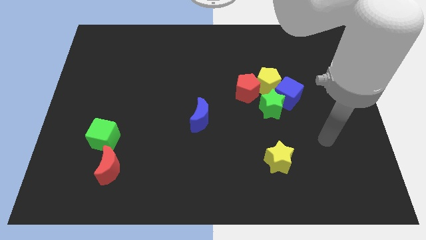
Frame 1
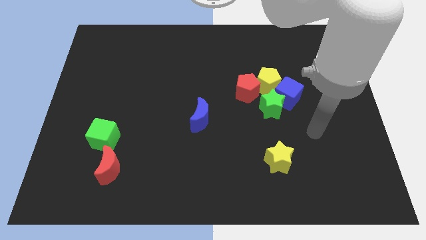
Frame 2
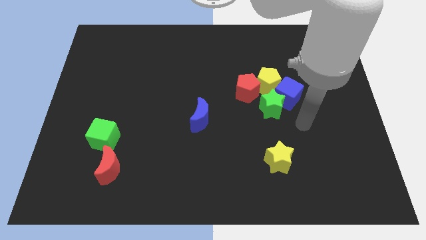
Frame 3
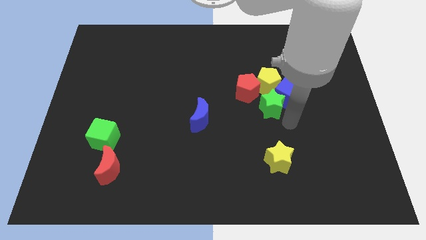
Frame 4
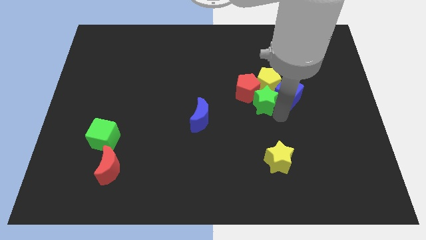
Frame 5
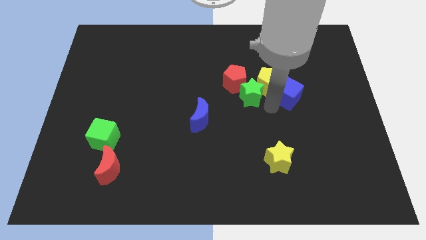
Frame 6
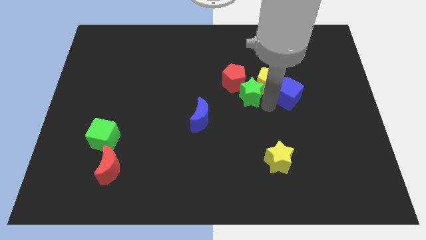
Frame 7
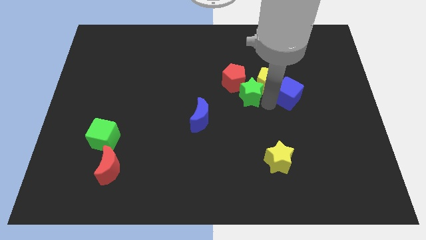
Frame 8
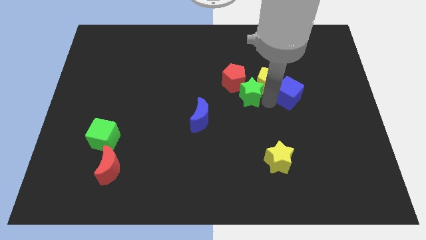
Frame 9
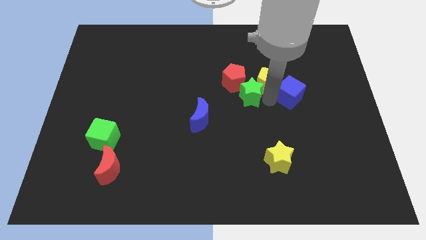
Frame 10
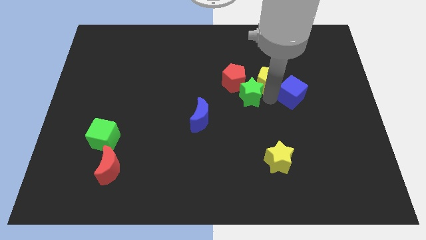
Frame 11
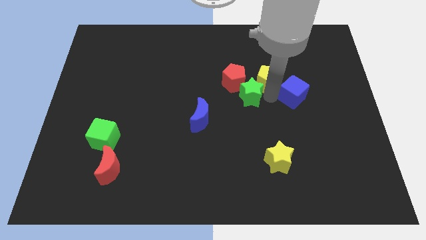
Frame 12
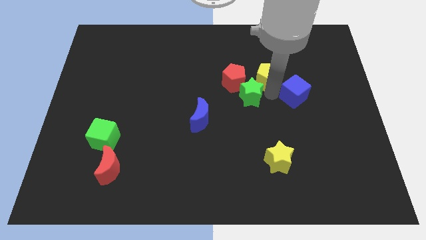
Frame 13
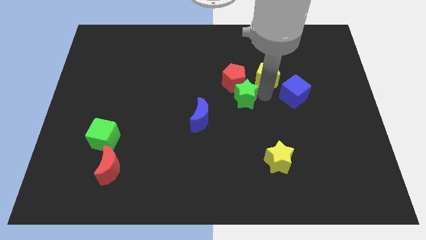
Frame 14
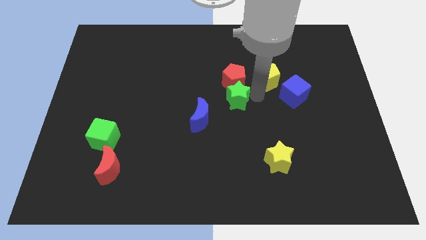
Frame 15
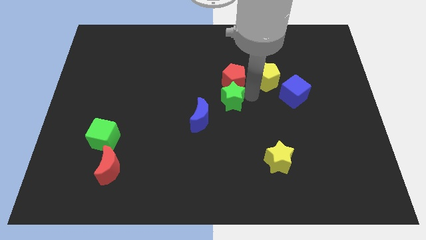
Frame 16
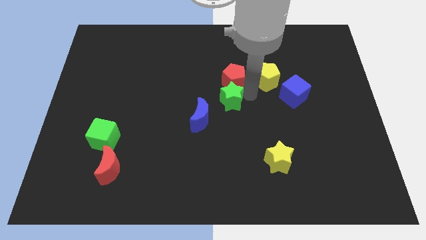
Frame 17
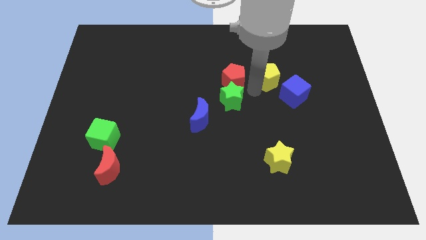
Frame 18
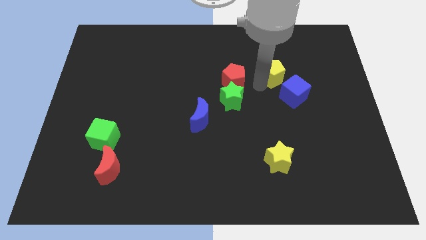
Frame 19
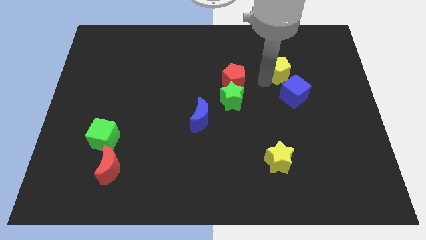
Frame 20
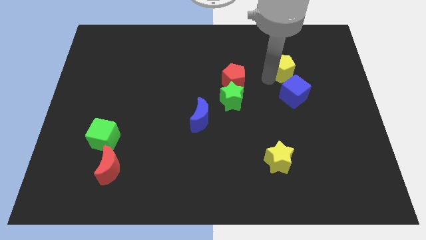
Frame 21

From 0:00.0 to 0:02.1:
move the yellow pentagon away from the group

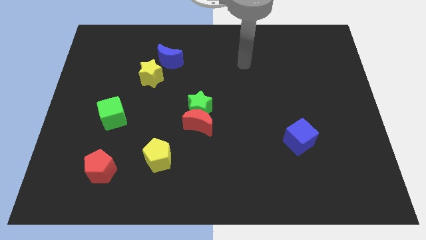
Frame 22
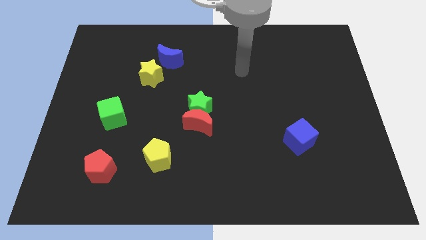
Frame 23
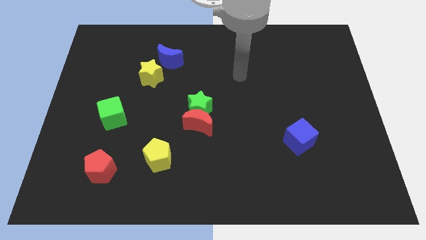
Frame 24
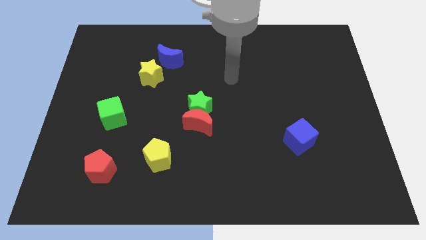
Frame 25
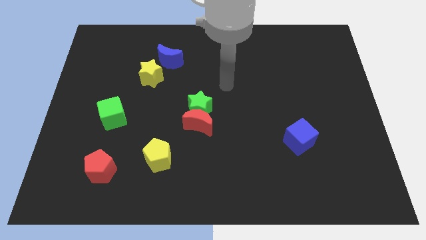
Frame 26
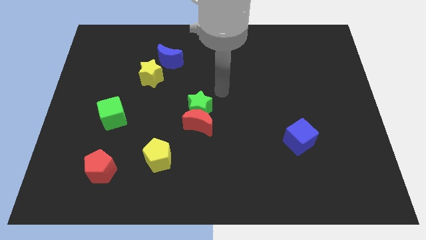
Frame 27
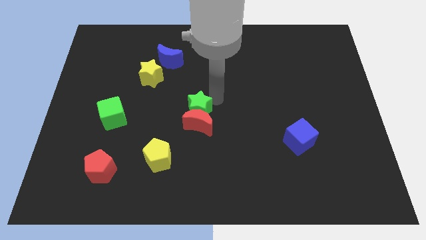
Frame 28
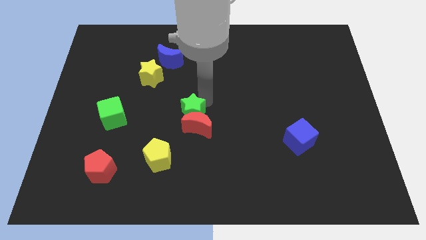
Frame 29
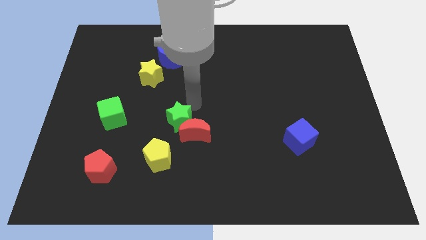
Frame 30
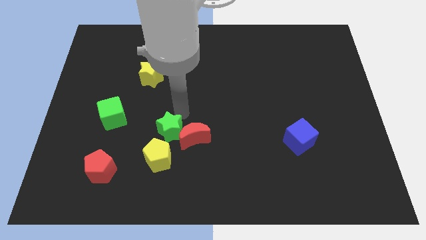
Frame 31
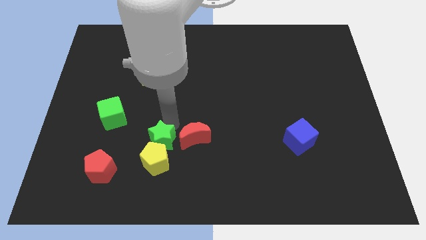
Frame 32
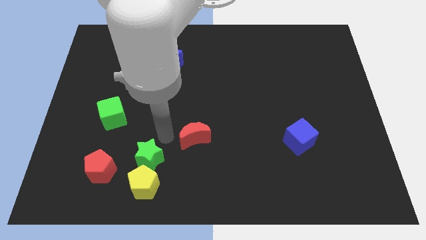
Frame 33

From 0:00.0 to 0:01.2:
move the red moon away from the green star

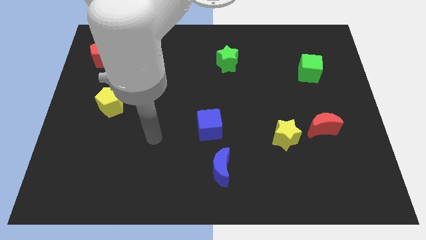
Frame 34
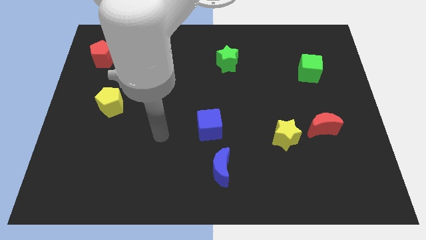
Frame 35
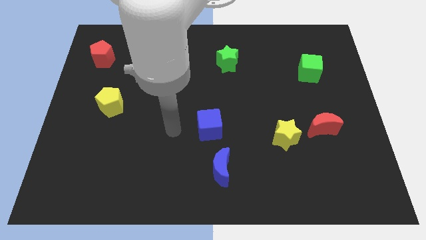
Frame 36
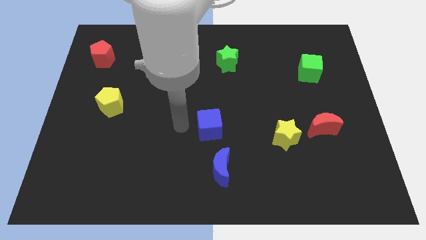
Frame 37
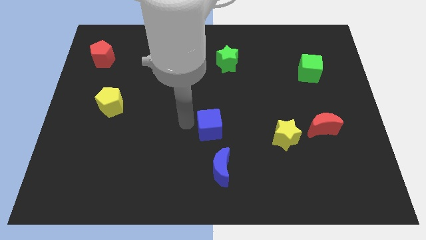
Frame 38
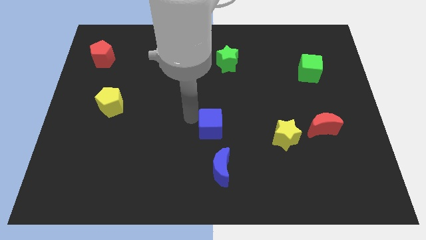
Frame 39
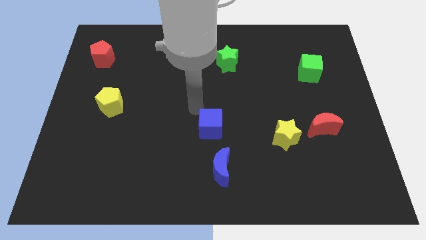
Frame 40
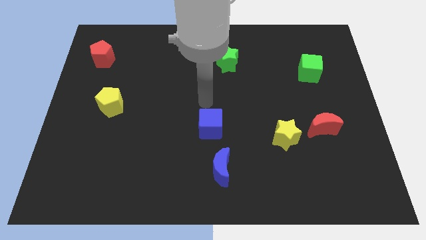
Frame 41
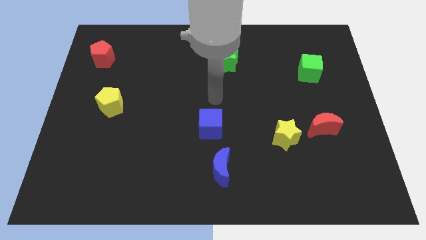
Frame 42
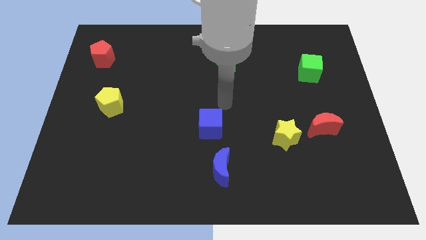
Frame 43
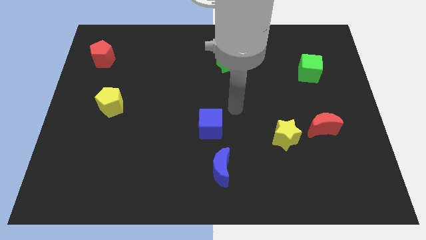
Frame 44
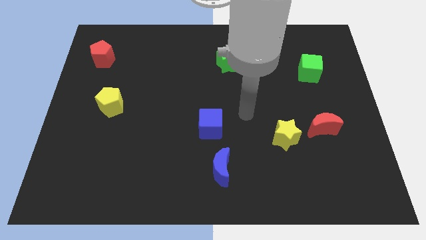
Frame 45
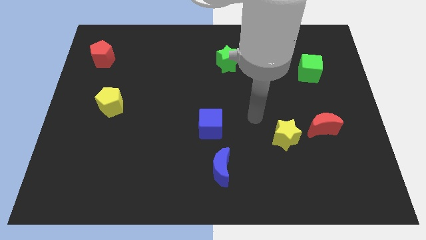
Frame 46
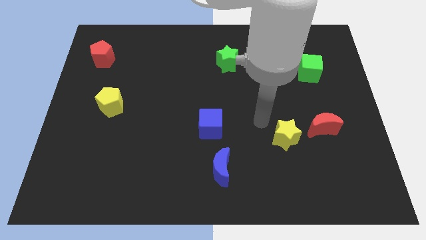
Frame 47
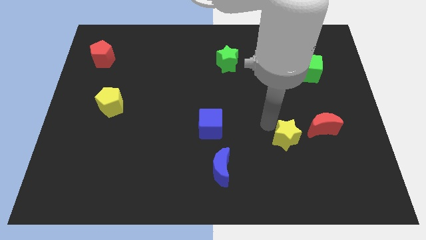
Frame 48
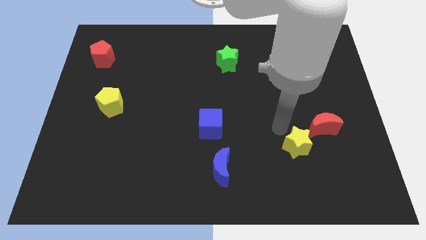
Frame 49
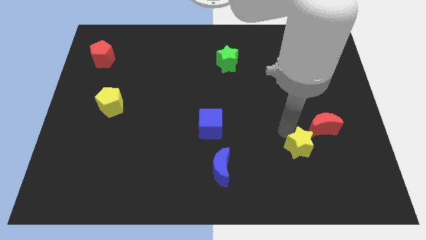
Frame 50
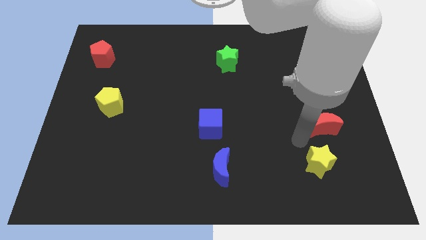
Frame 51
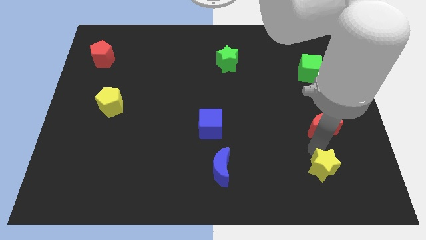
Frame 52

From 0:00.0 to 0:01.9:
separate the red moon from the yellow star

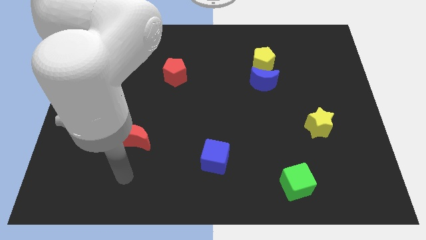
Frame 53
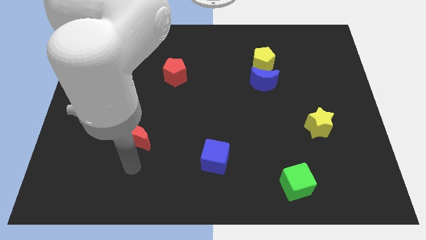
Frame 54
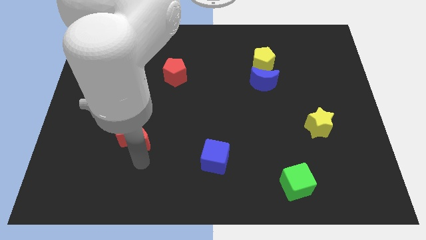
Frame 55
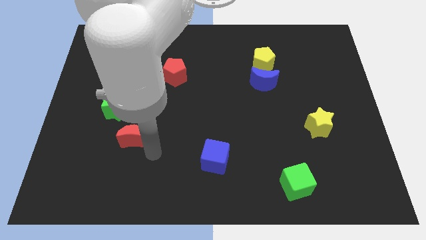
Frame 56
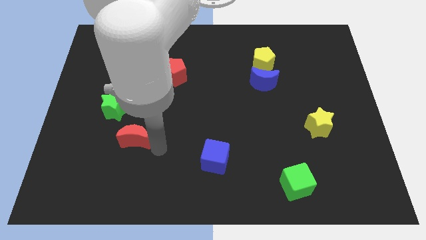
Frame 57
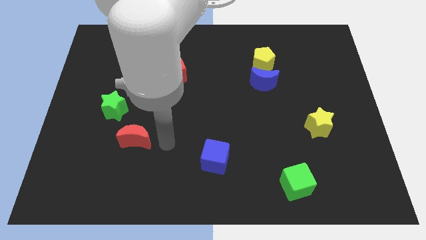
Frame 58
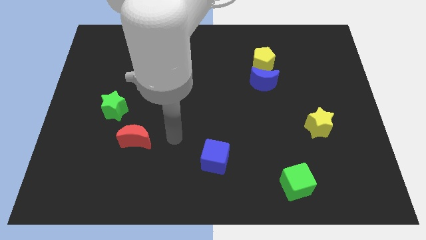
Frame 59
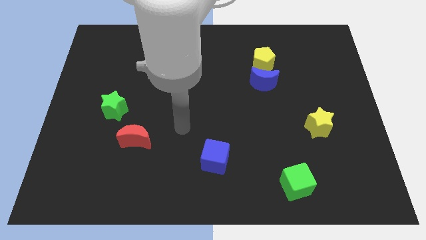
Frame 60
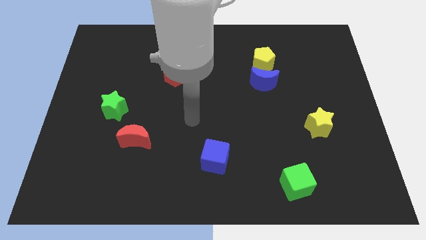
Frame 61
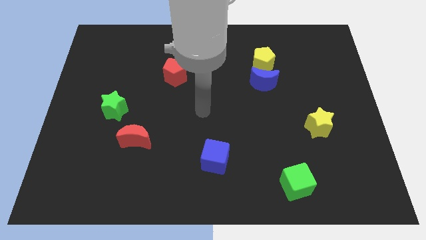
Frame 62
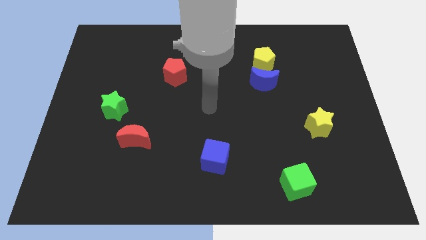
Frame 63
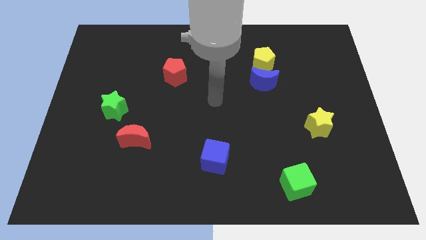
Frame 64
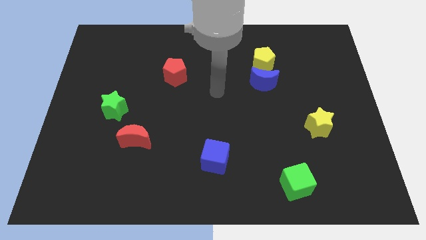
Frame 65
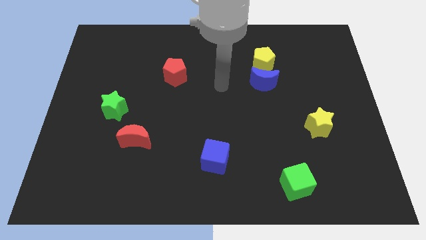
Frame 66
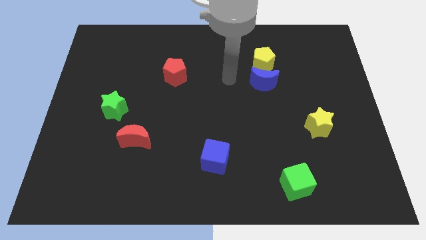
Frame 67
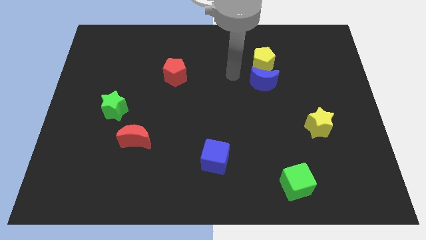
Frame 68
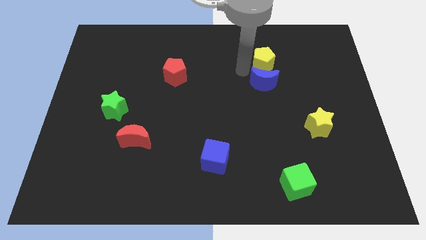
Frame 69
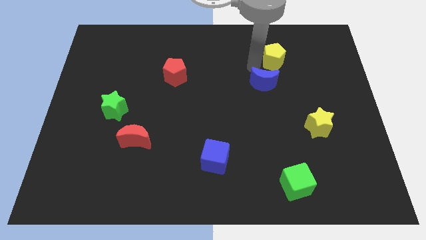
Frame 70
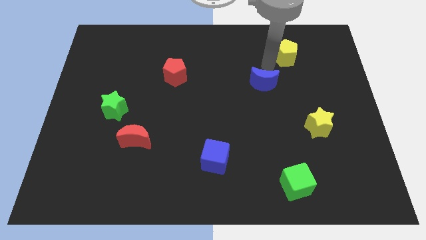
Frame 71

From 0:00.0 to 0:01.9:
separate the blue moon from the yellow pentagon

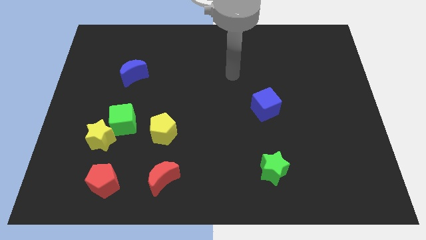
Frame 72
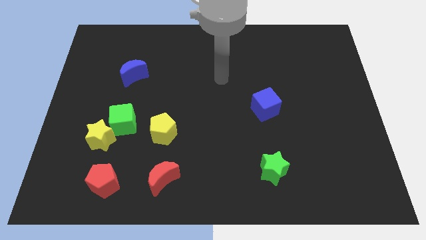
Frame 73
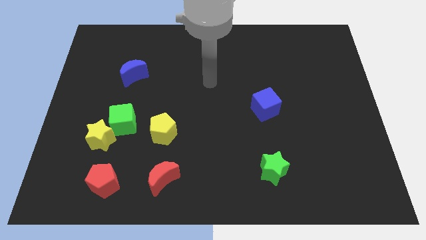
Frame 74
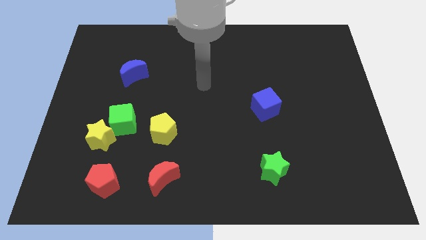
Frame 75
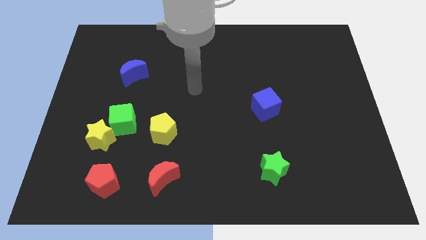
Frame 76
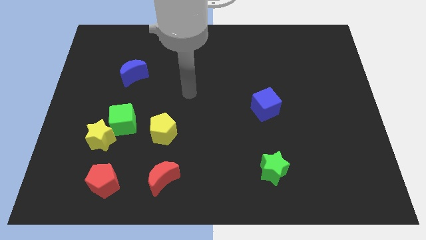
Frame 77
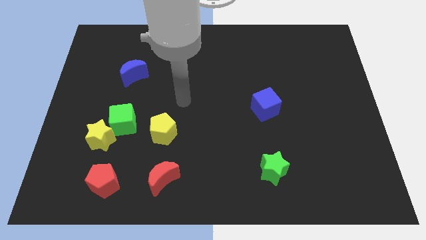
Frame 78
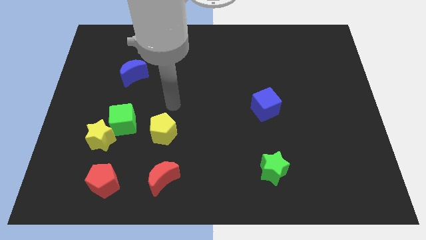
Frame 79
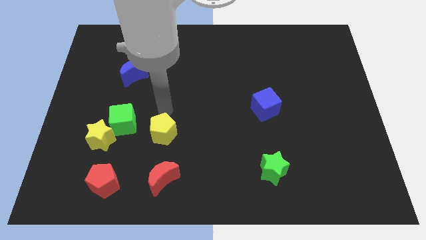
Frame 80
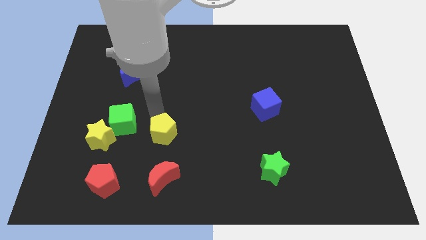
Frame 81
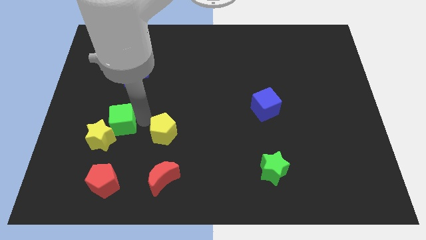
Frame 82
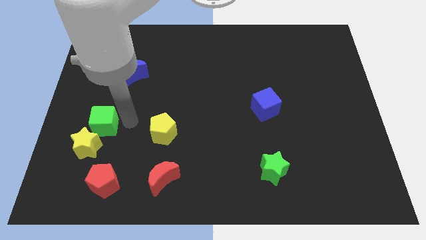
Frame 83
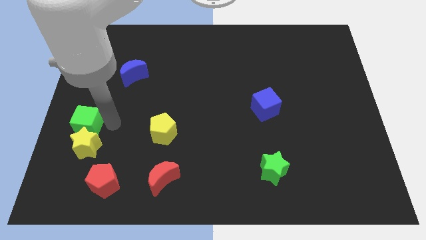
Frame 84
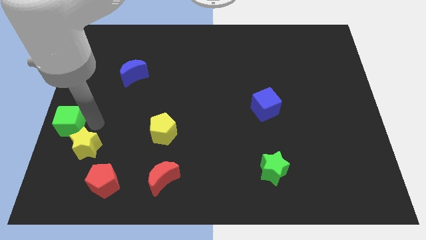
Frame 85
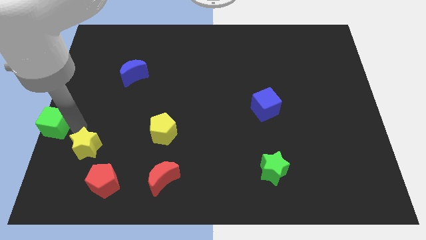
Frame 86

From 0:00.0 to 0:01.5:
separate the yellow star from the green cube

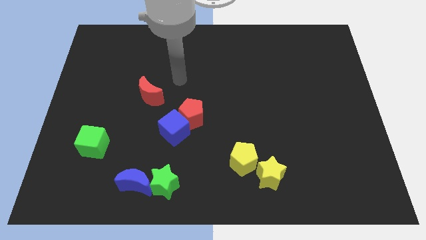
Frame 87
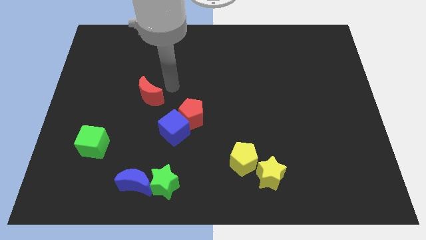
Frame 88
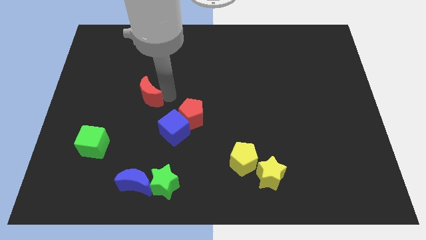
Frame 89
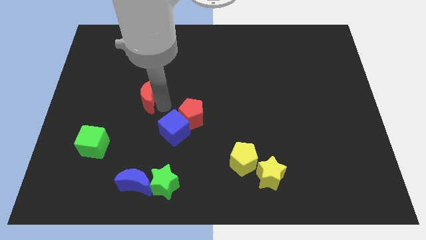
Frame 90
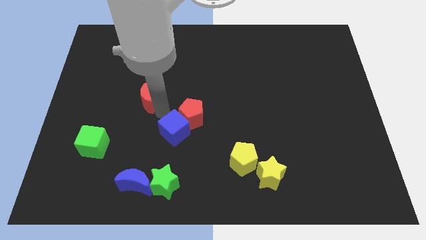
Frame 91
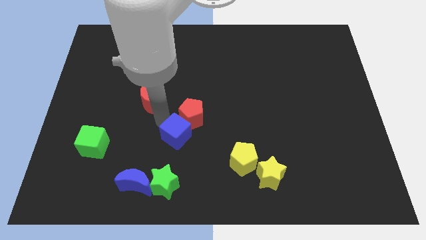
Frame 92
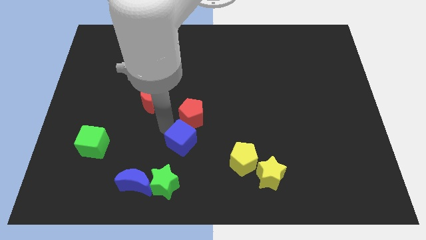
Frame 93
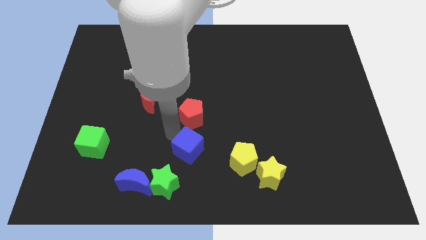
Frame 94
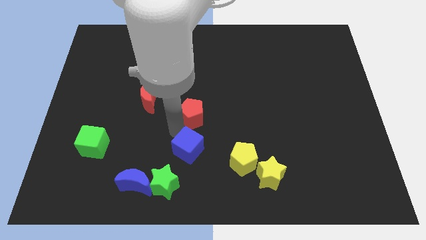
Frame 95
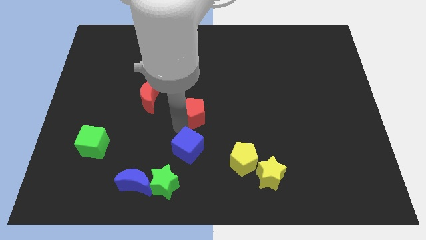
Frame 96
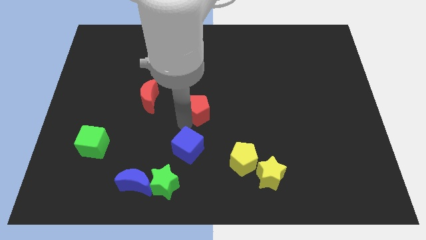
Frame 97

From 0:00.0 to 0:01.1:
separate the red pentagon from the blue cube
